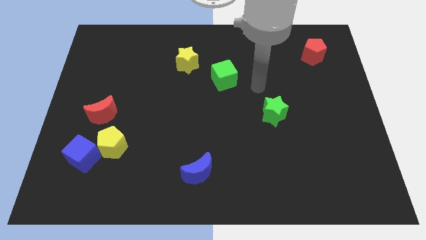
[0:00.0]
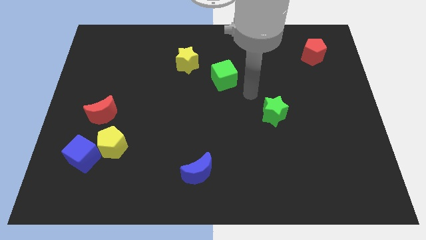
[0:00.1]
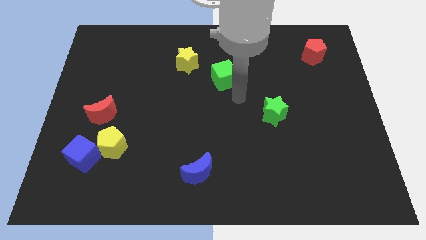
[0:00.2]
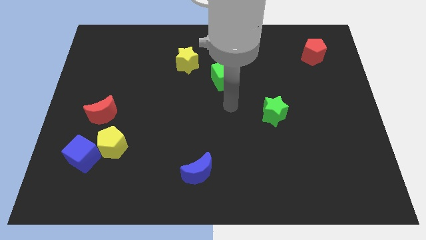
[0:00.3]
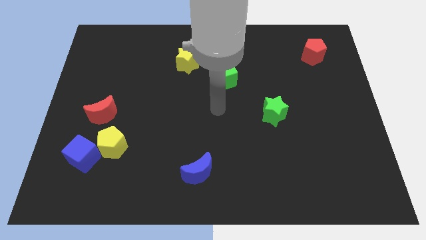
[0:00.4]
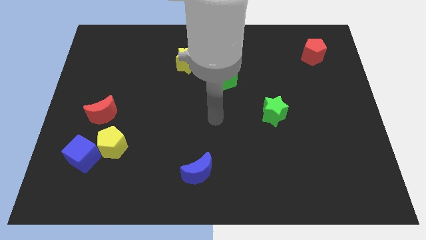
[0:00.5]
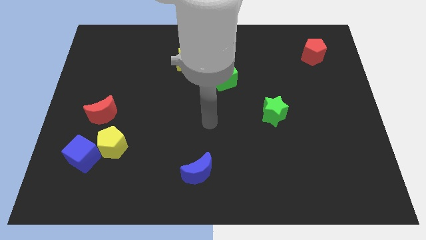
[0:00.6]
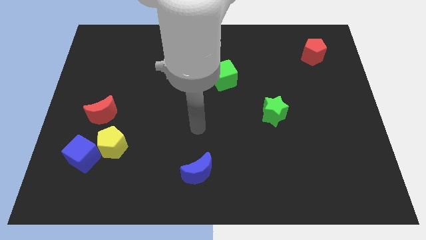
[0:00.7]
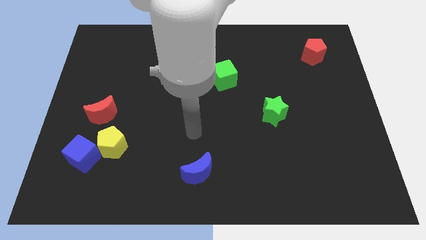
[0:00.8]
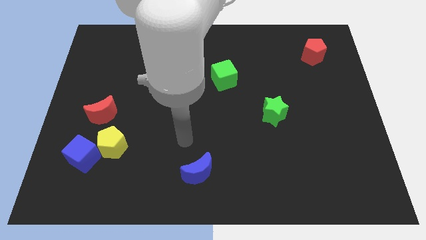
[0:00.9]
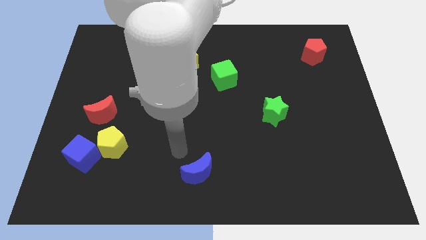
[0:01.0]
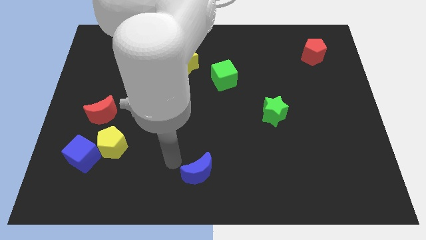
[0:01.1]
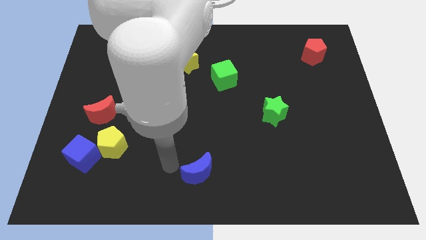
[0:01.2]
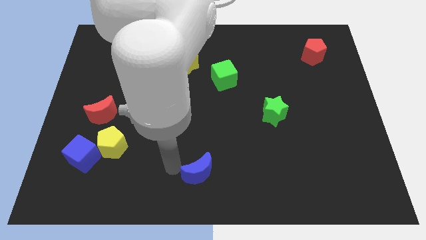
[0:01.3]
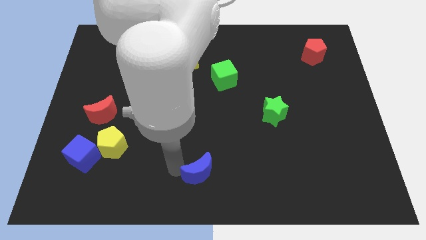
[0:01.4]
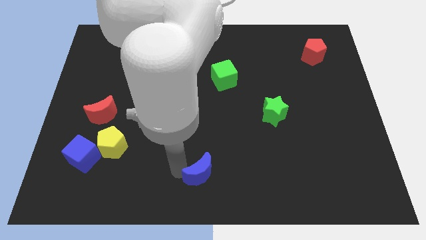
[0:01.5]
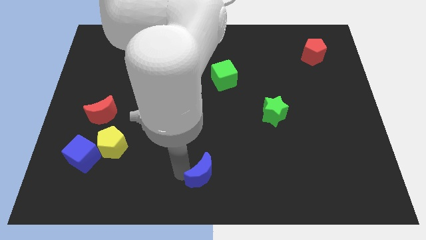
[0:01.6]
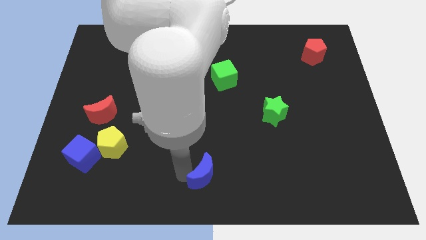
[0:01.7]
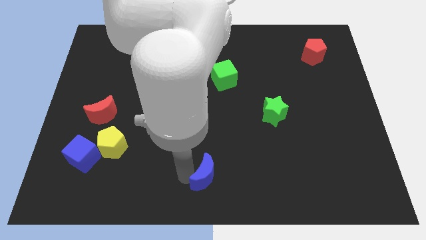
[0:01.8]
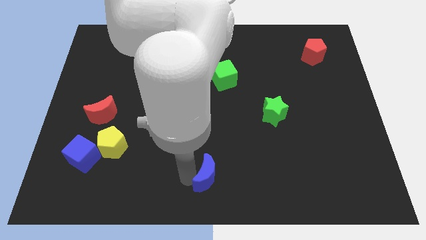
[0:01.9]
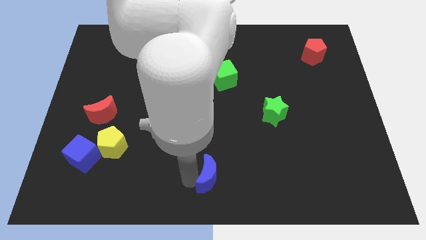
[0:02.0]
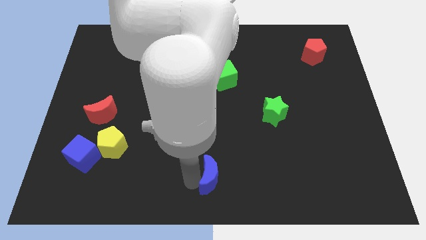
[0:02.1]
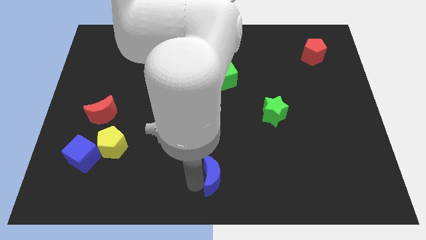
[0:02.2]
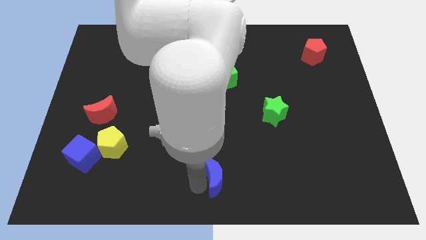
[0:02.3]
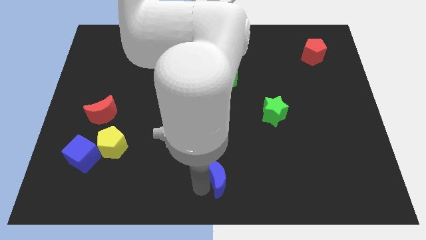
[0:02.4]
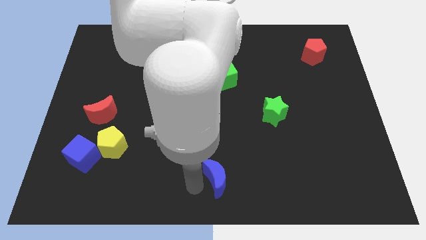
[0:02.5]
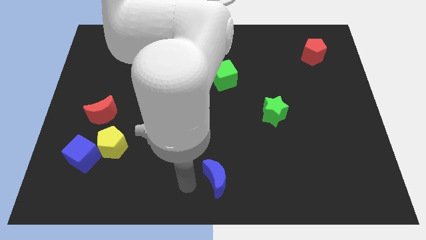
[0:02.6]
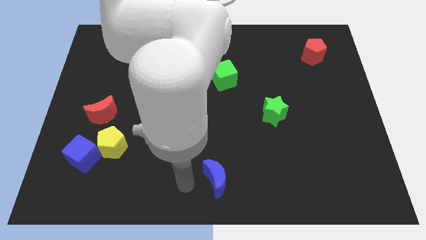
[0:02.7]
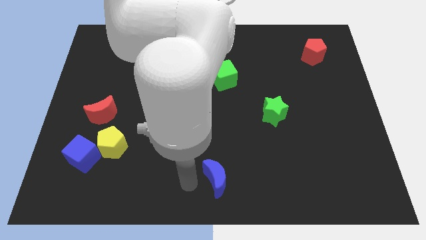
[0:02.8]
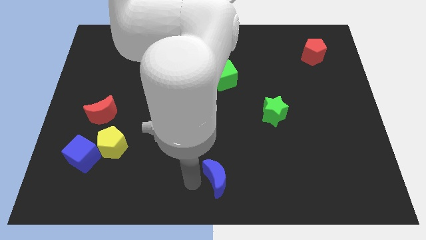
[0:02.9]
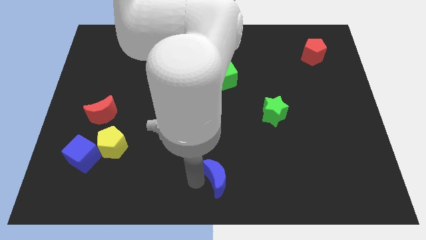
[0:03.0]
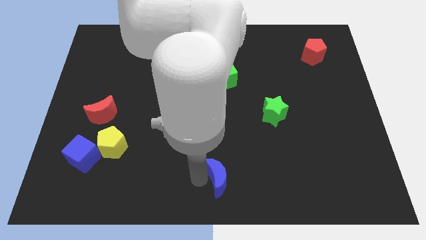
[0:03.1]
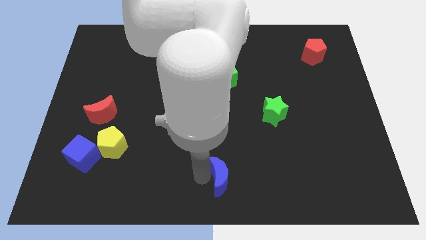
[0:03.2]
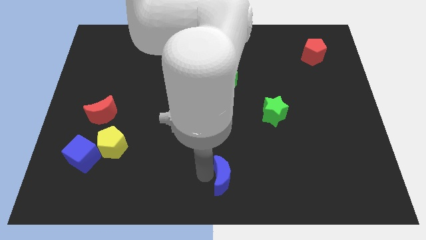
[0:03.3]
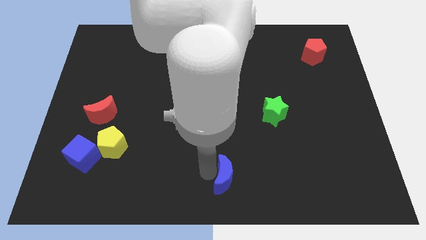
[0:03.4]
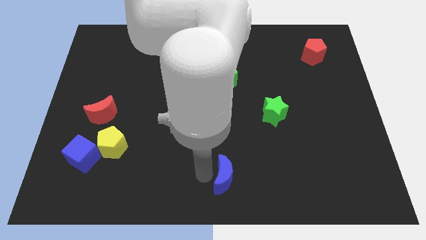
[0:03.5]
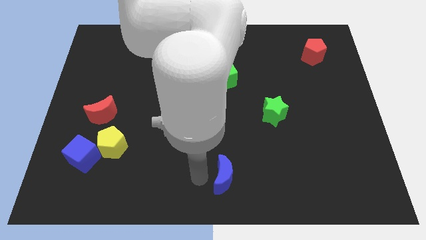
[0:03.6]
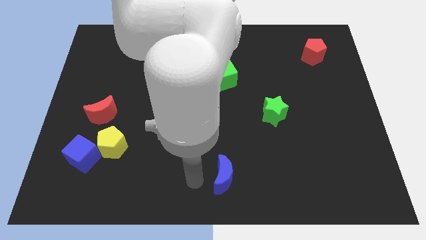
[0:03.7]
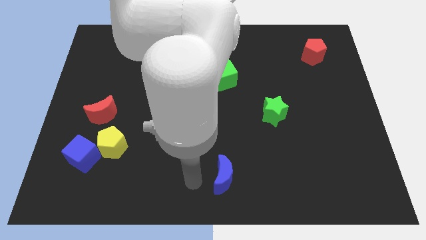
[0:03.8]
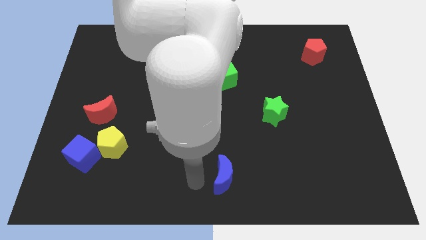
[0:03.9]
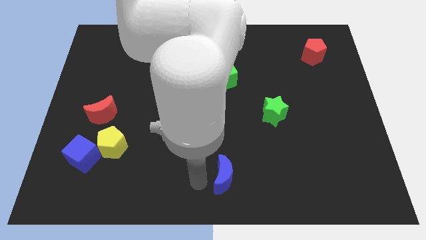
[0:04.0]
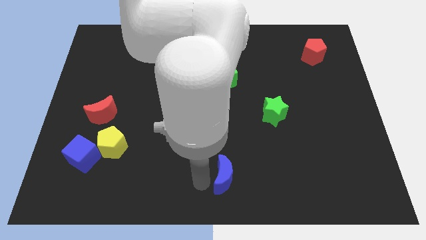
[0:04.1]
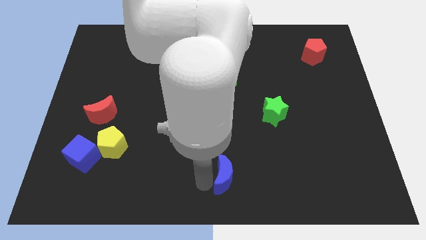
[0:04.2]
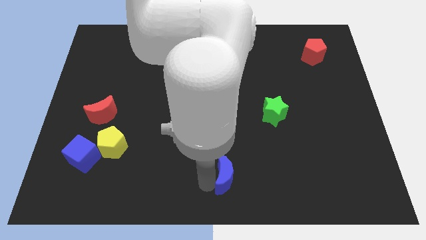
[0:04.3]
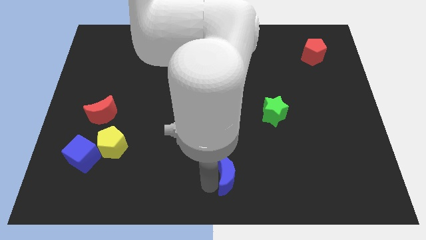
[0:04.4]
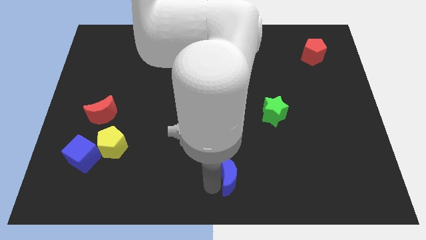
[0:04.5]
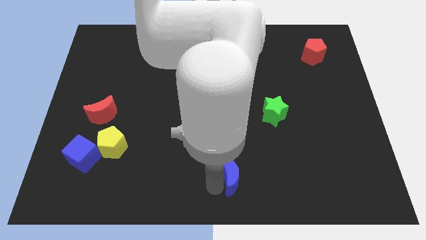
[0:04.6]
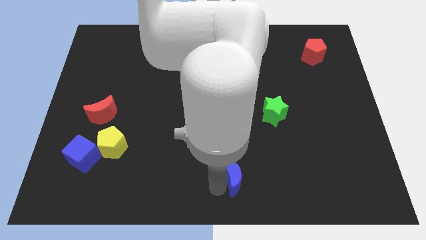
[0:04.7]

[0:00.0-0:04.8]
push the blue moon somewhat to the right

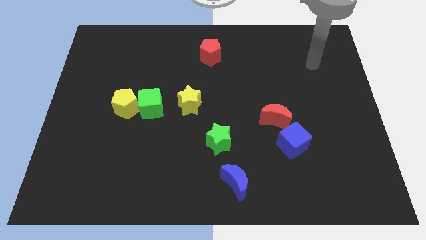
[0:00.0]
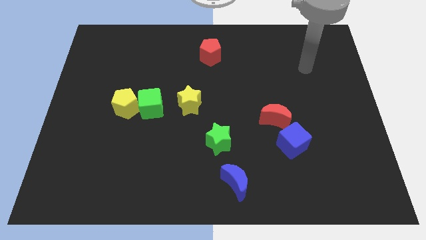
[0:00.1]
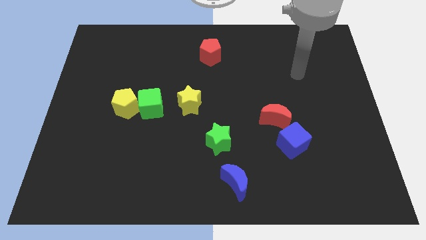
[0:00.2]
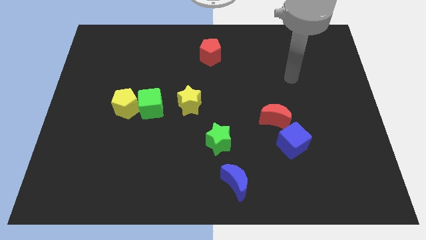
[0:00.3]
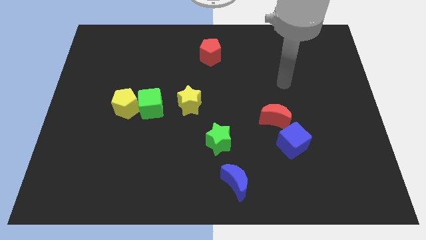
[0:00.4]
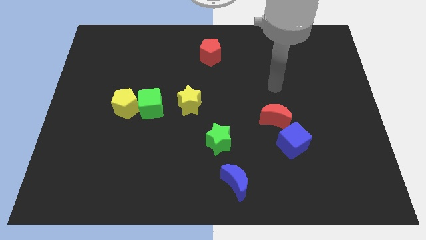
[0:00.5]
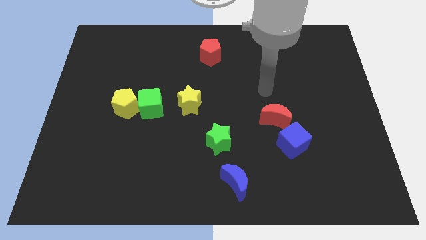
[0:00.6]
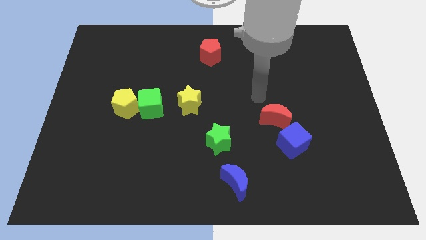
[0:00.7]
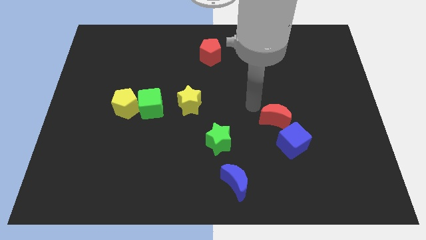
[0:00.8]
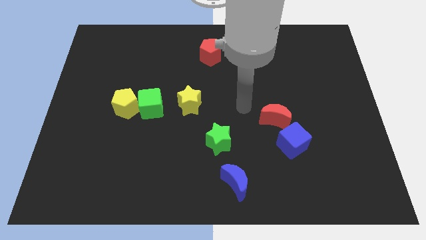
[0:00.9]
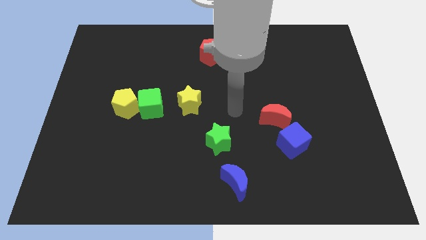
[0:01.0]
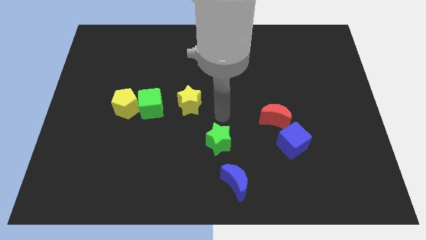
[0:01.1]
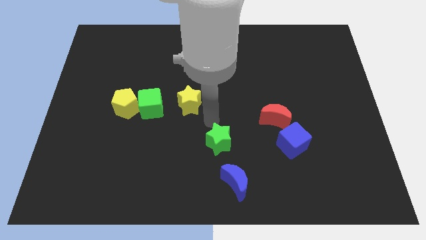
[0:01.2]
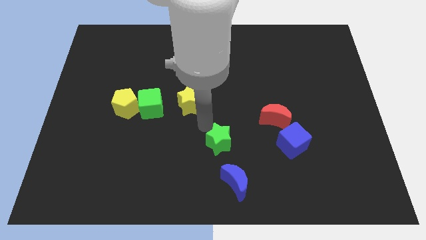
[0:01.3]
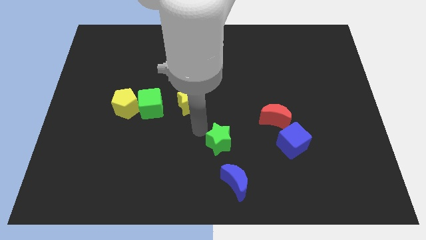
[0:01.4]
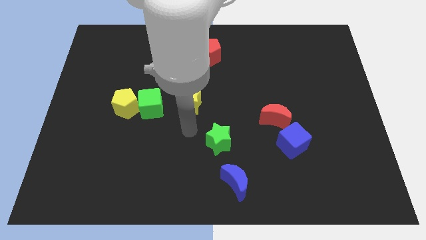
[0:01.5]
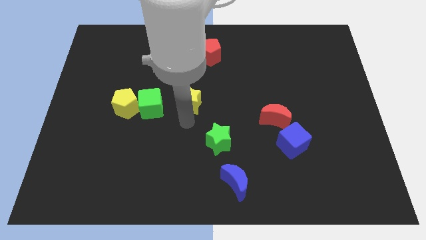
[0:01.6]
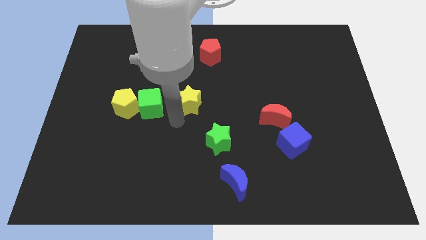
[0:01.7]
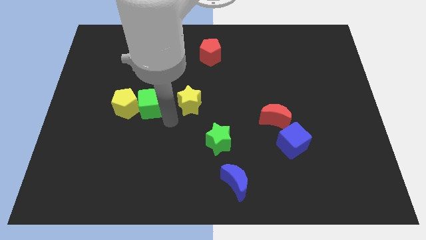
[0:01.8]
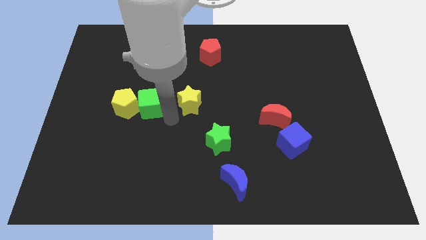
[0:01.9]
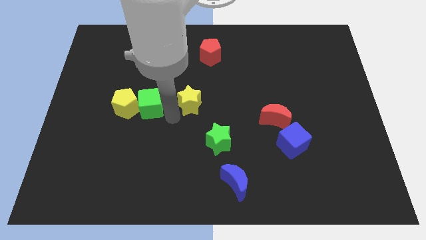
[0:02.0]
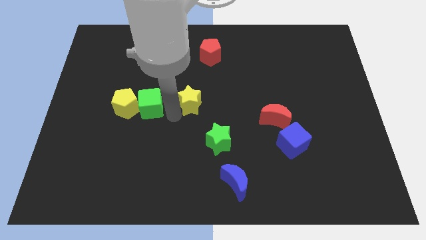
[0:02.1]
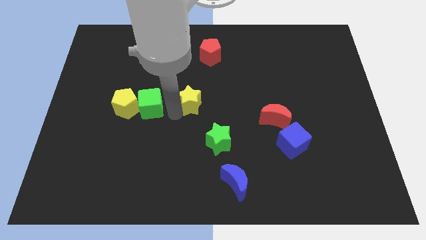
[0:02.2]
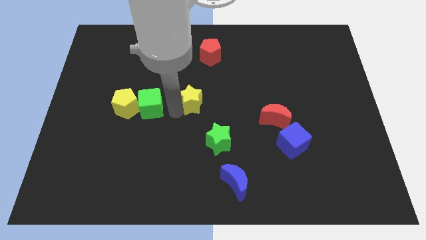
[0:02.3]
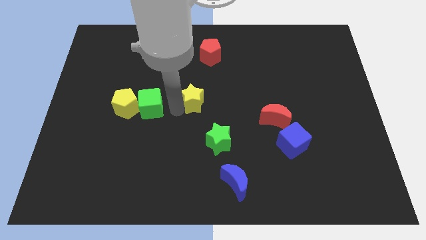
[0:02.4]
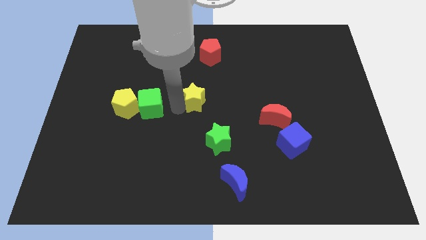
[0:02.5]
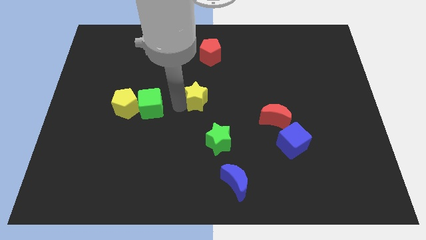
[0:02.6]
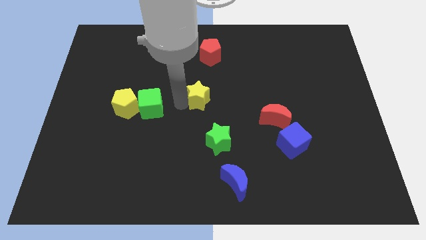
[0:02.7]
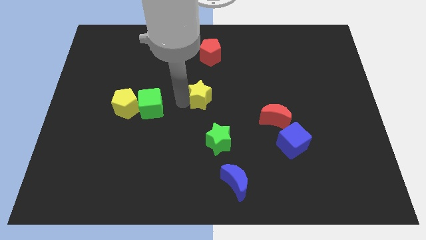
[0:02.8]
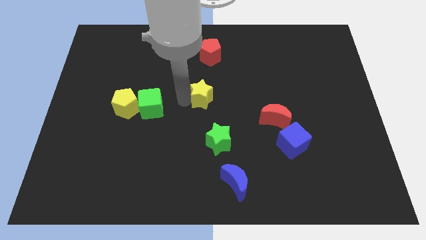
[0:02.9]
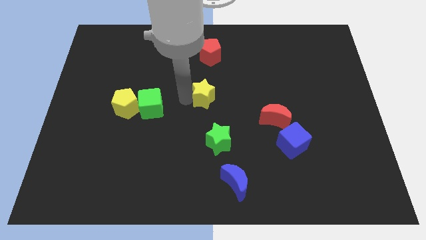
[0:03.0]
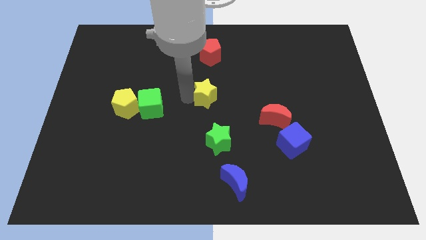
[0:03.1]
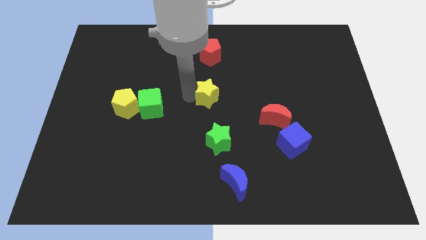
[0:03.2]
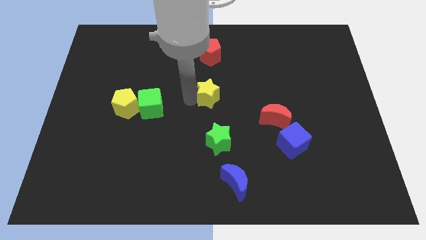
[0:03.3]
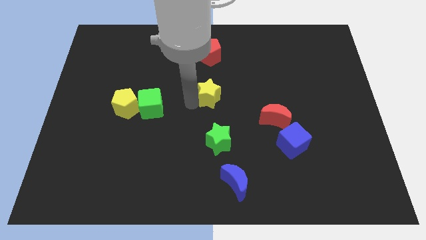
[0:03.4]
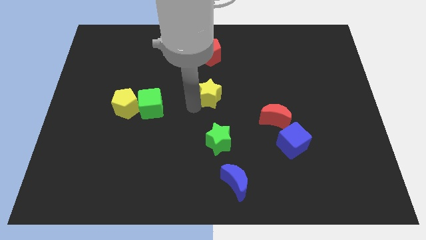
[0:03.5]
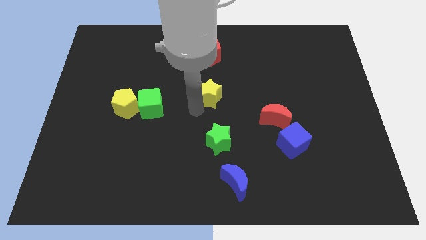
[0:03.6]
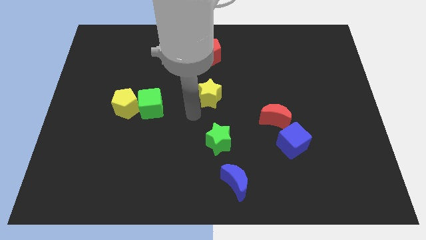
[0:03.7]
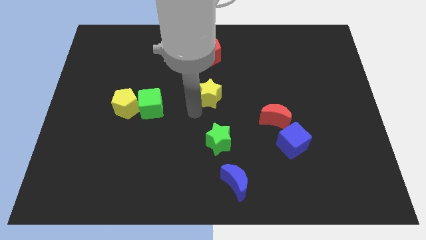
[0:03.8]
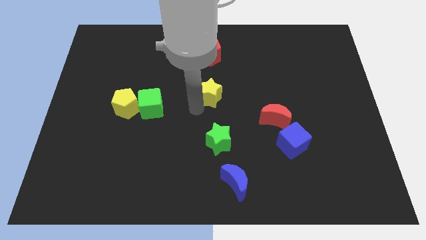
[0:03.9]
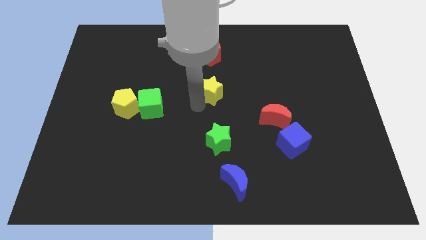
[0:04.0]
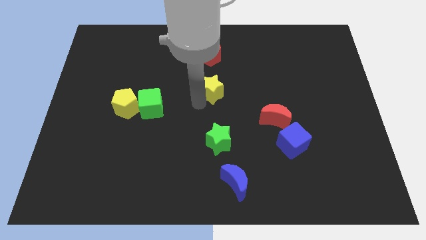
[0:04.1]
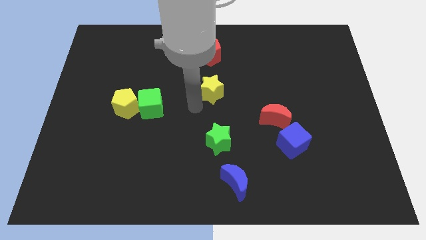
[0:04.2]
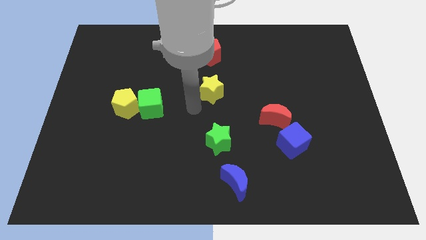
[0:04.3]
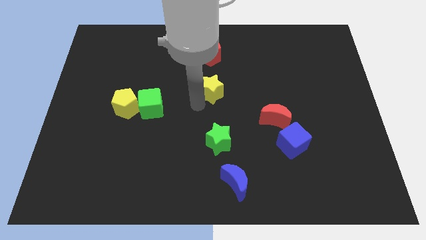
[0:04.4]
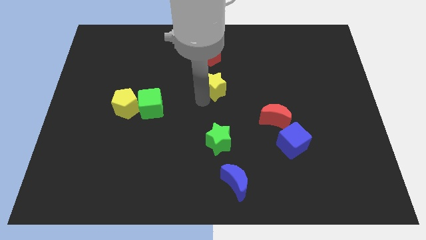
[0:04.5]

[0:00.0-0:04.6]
move the yellow star a little bit diagonally up and to the right
